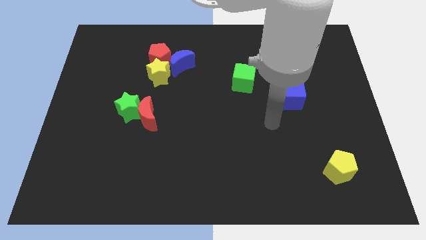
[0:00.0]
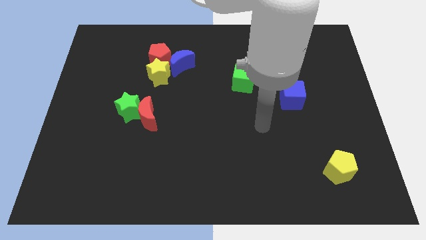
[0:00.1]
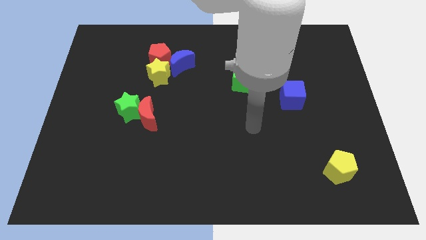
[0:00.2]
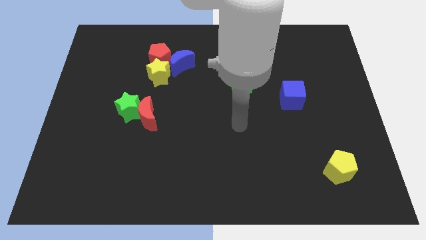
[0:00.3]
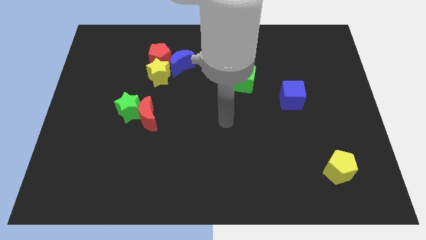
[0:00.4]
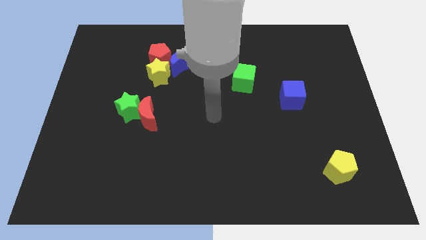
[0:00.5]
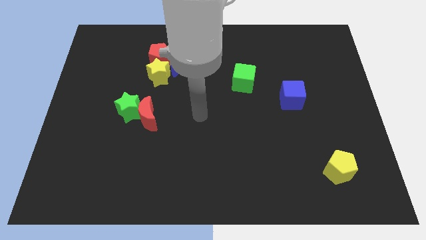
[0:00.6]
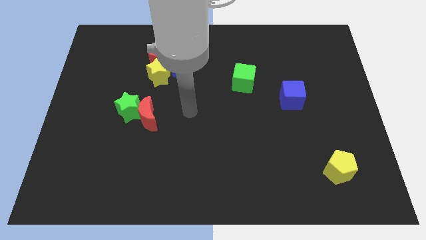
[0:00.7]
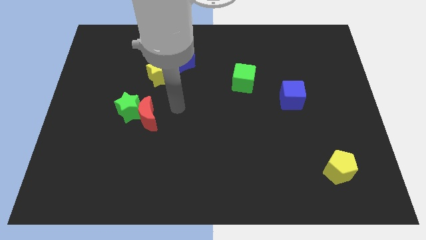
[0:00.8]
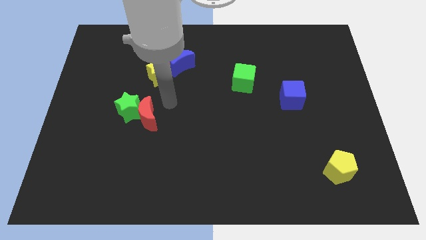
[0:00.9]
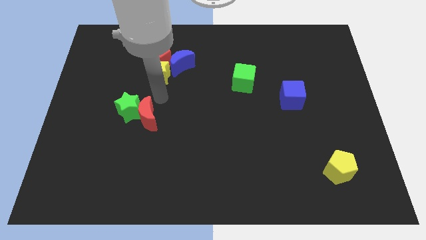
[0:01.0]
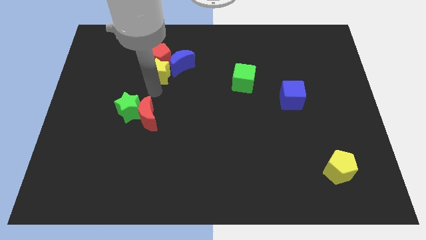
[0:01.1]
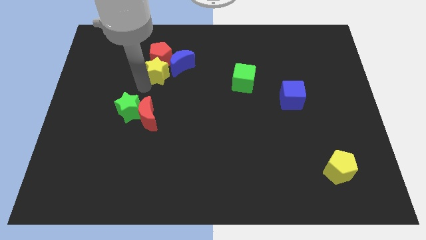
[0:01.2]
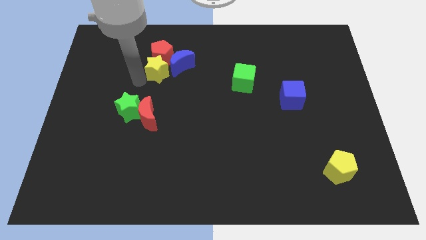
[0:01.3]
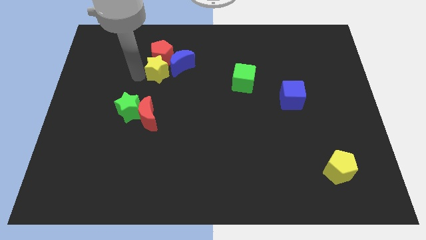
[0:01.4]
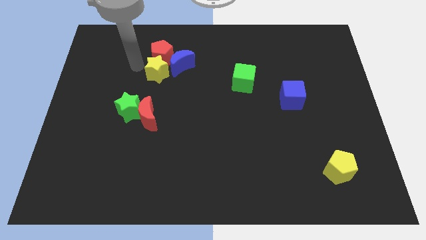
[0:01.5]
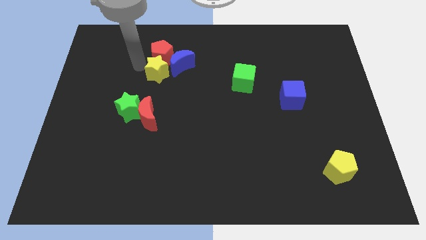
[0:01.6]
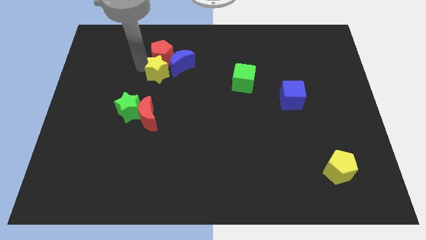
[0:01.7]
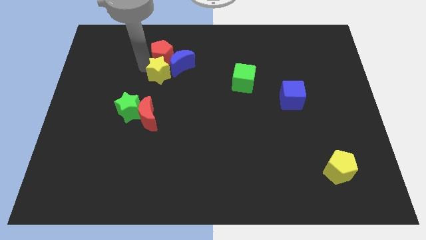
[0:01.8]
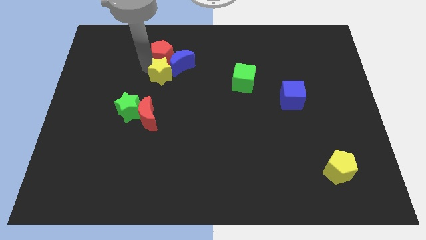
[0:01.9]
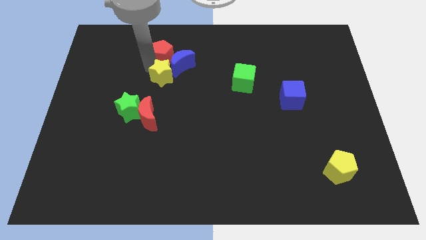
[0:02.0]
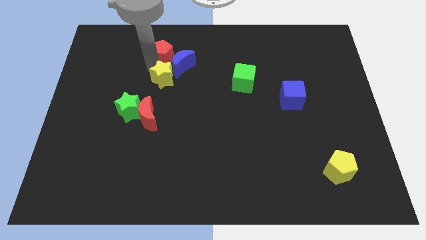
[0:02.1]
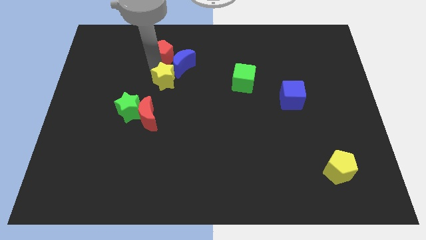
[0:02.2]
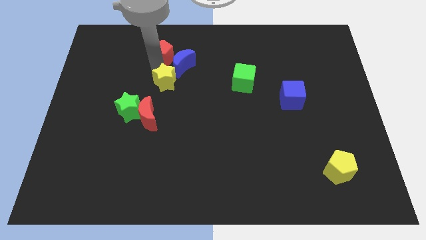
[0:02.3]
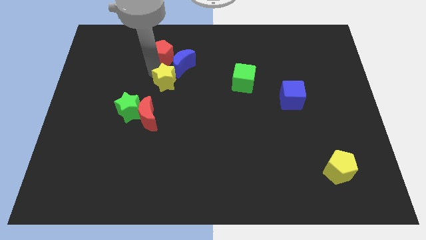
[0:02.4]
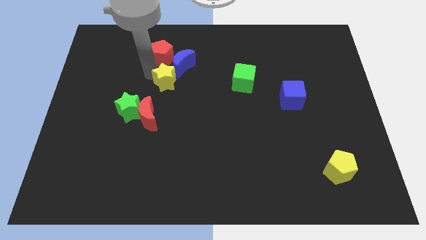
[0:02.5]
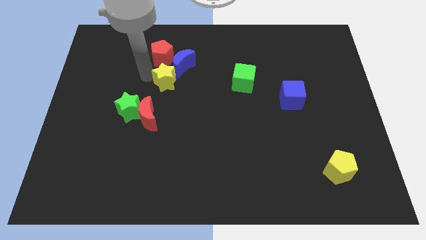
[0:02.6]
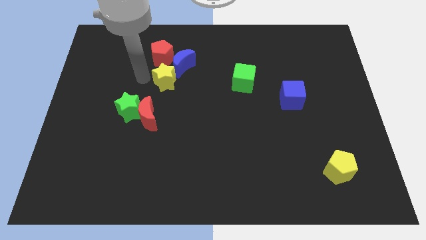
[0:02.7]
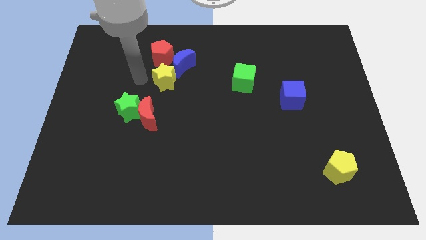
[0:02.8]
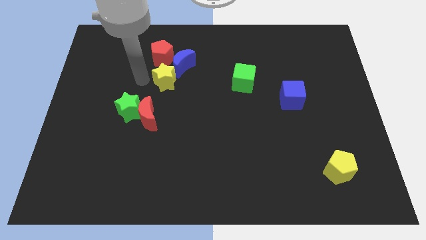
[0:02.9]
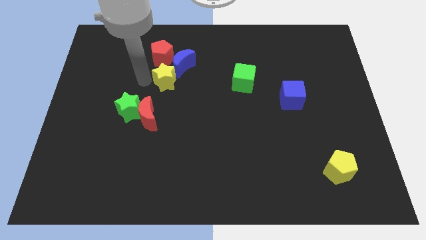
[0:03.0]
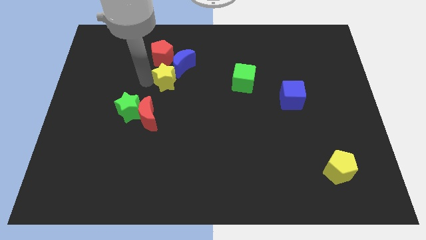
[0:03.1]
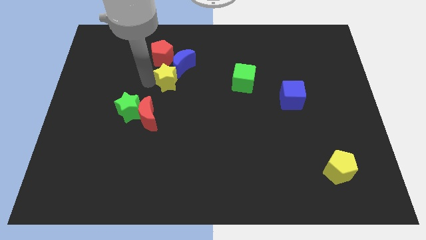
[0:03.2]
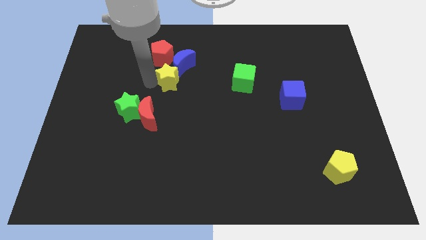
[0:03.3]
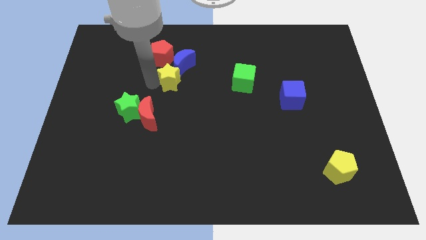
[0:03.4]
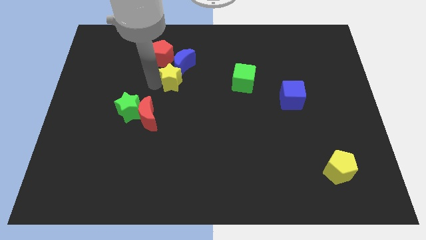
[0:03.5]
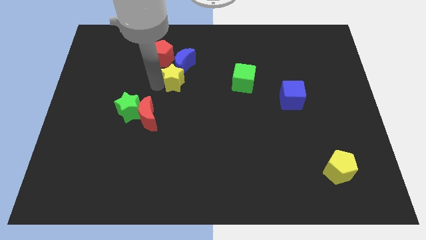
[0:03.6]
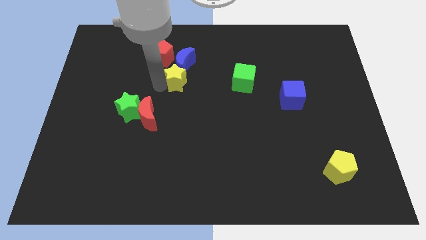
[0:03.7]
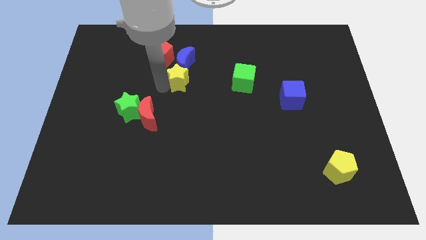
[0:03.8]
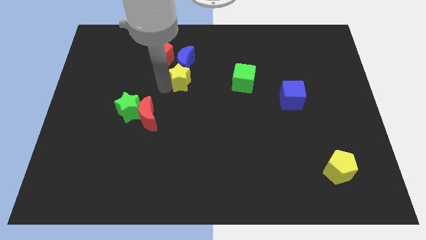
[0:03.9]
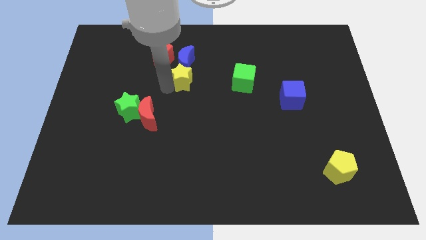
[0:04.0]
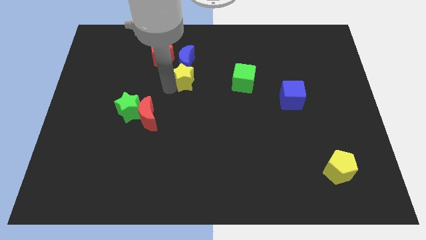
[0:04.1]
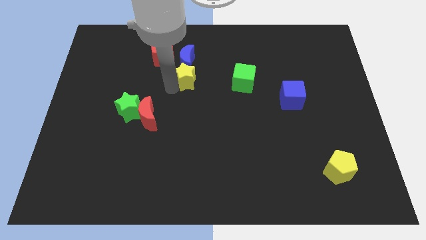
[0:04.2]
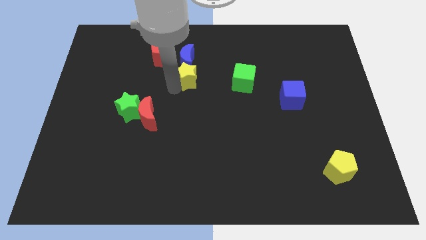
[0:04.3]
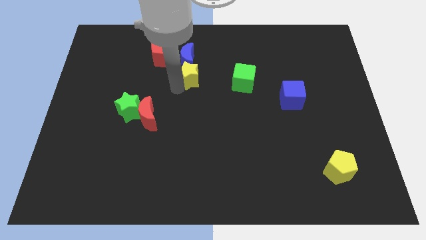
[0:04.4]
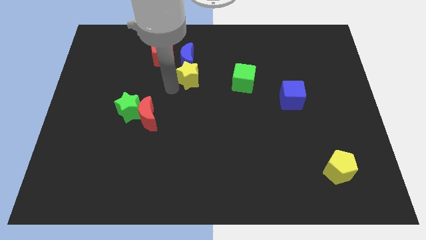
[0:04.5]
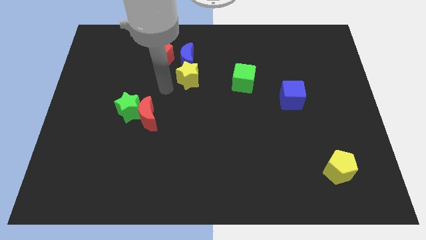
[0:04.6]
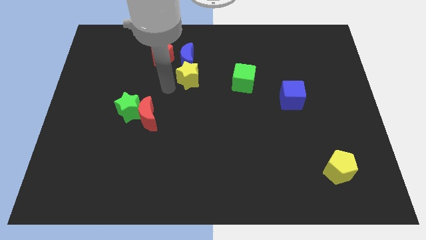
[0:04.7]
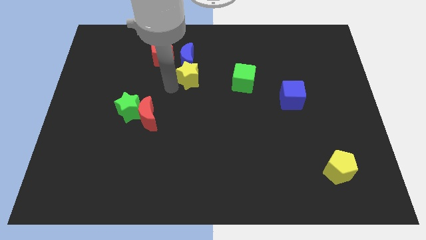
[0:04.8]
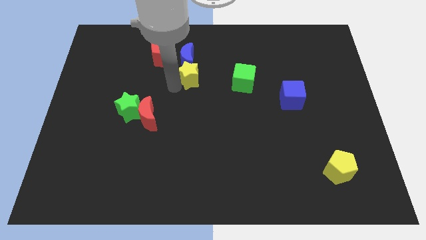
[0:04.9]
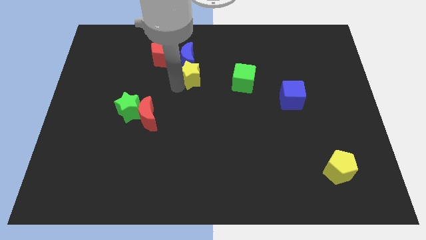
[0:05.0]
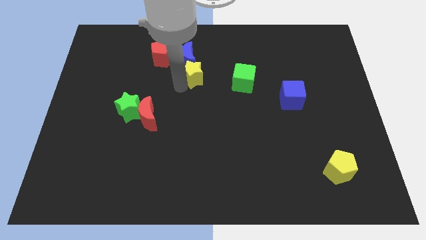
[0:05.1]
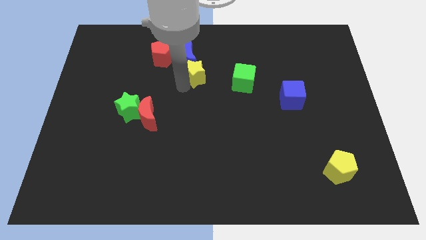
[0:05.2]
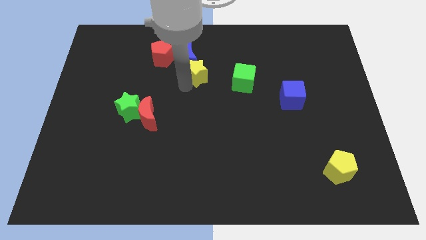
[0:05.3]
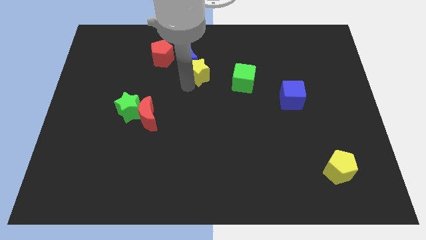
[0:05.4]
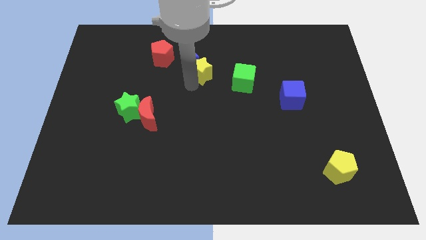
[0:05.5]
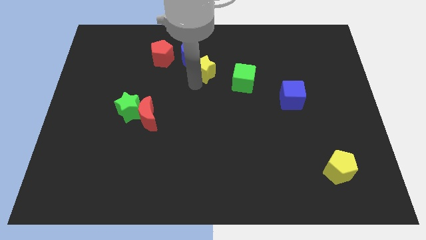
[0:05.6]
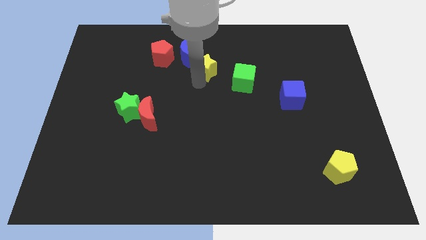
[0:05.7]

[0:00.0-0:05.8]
slide the yellow star to the right of the blue moon
